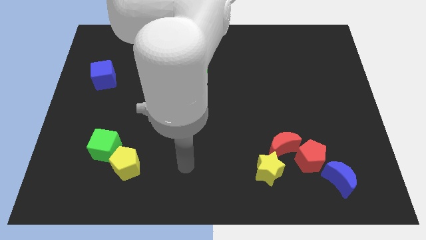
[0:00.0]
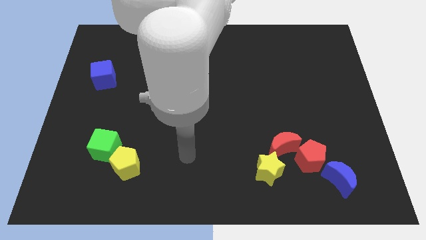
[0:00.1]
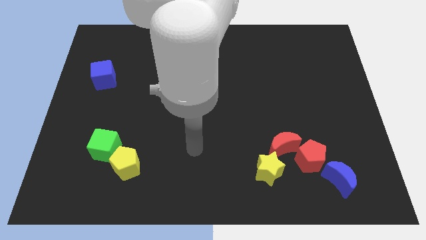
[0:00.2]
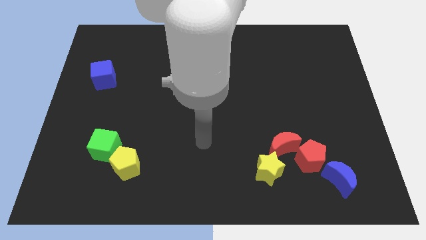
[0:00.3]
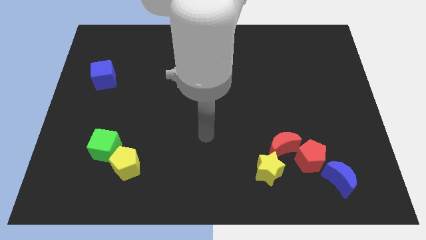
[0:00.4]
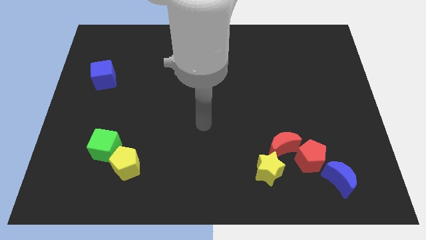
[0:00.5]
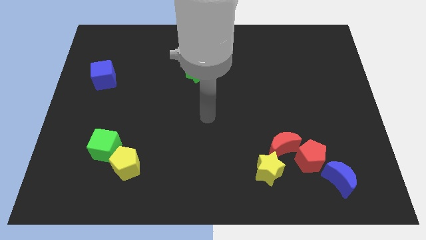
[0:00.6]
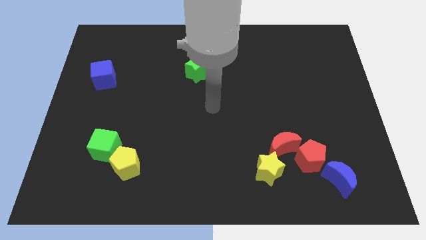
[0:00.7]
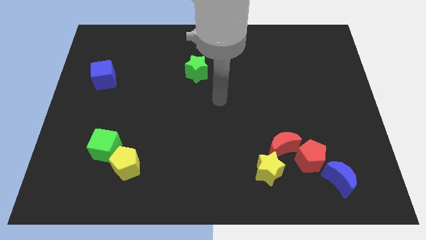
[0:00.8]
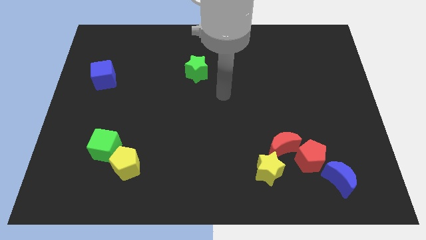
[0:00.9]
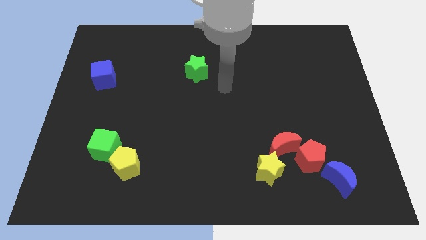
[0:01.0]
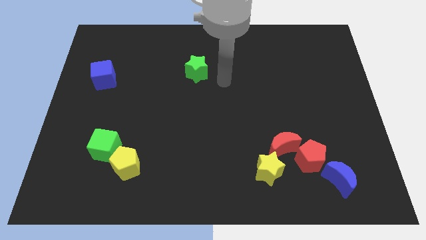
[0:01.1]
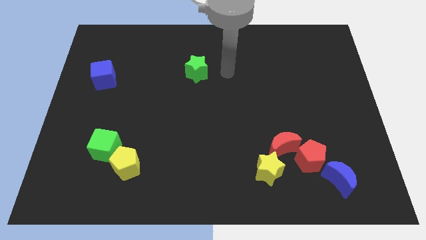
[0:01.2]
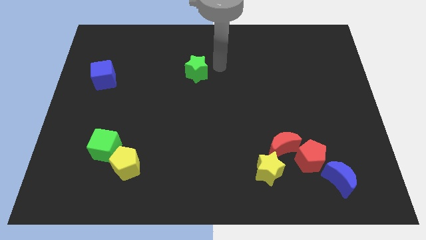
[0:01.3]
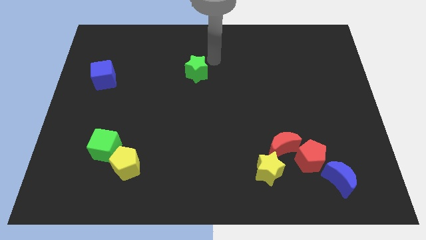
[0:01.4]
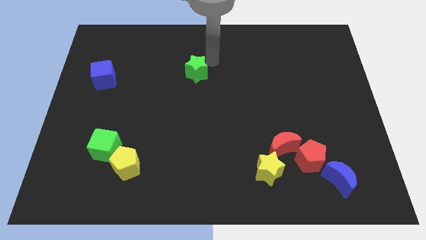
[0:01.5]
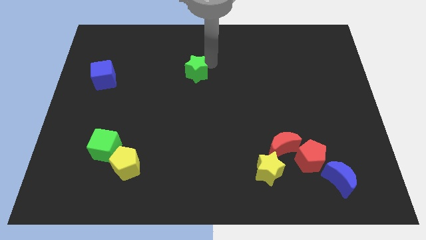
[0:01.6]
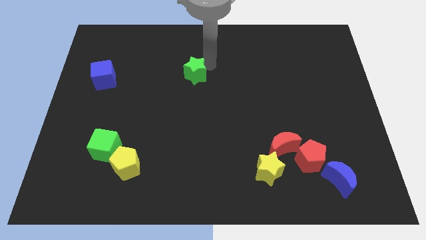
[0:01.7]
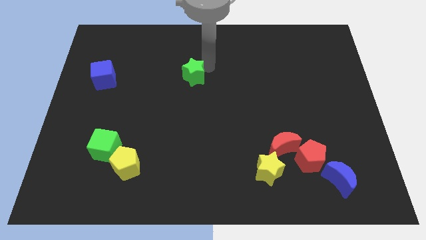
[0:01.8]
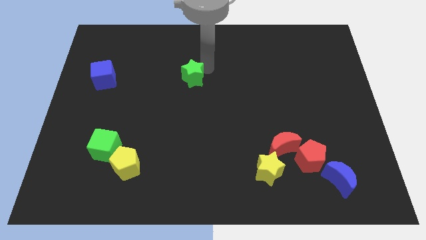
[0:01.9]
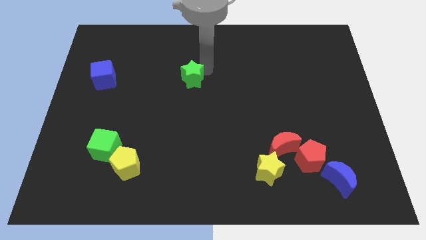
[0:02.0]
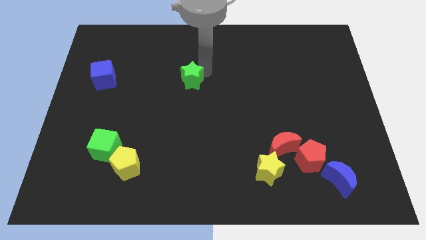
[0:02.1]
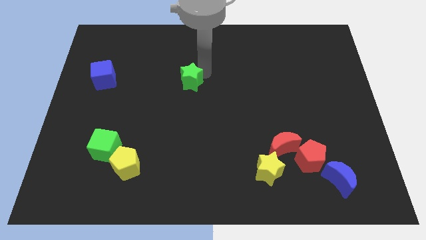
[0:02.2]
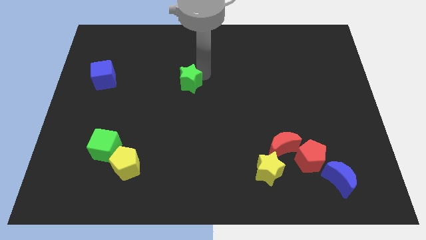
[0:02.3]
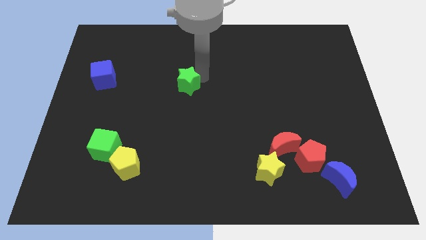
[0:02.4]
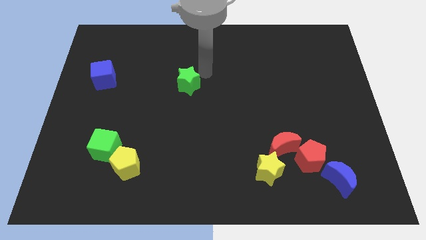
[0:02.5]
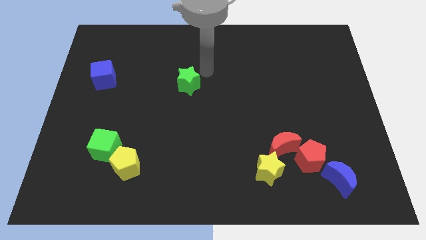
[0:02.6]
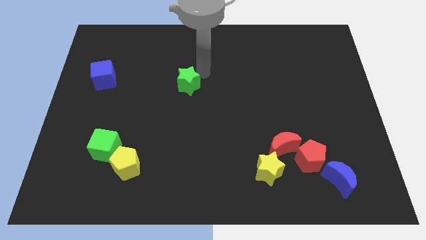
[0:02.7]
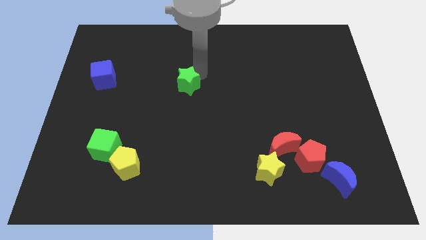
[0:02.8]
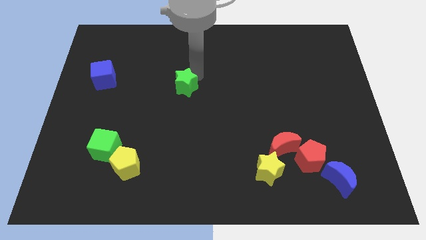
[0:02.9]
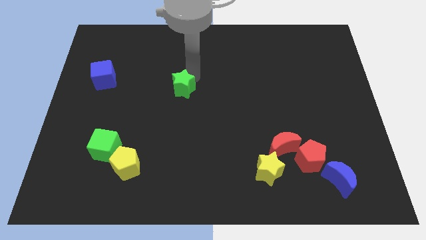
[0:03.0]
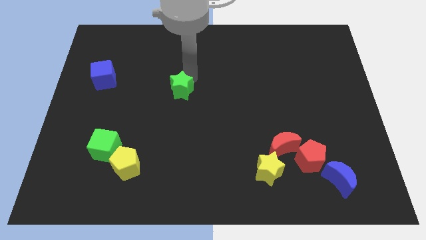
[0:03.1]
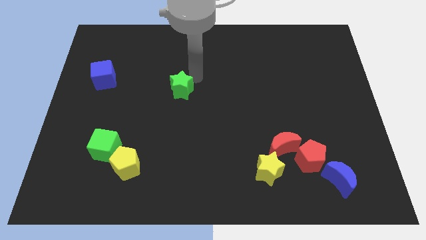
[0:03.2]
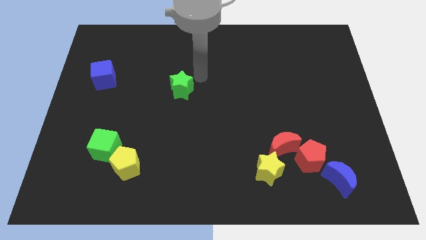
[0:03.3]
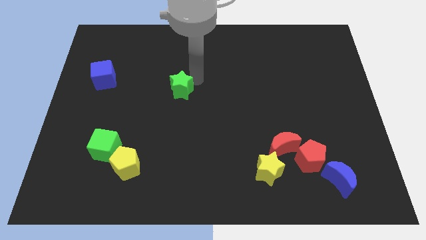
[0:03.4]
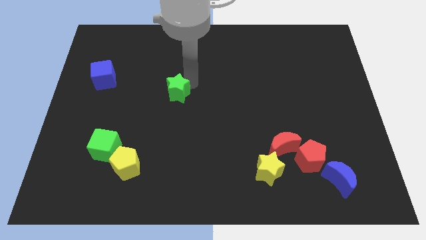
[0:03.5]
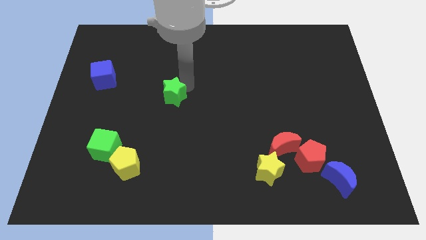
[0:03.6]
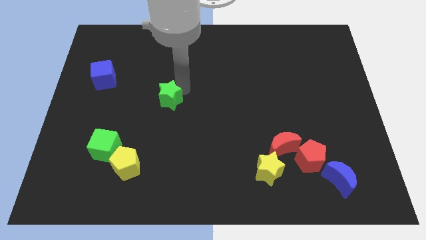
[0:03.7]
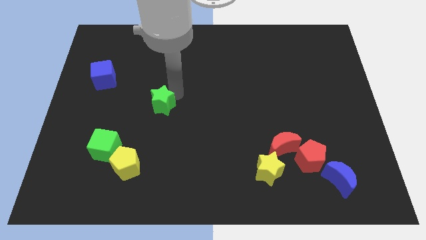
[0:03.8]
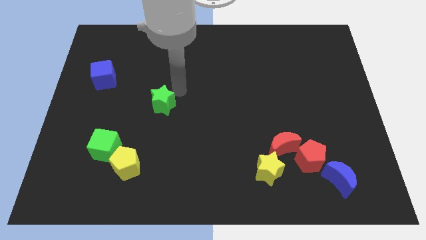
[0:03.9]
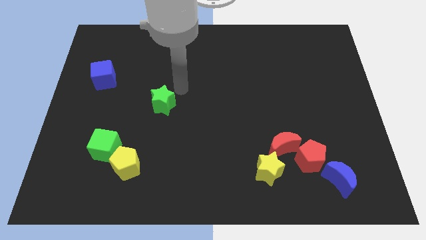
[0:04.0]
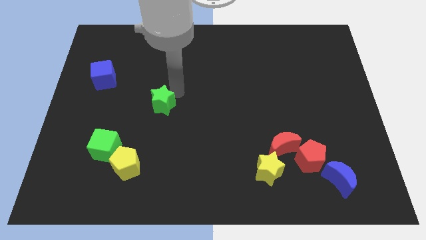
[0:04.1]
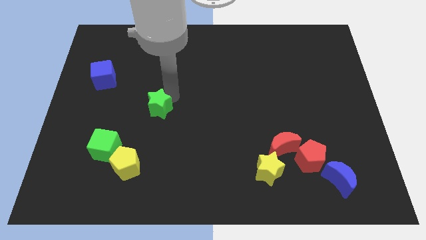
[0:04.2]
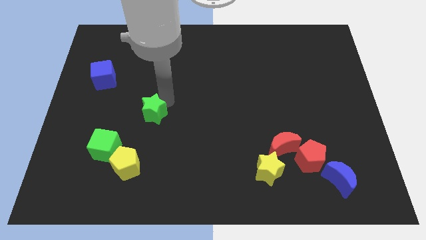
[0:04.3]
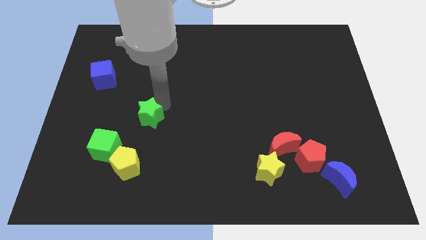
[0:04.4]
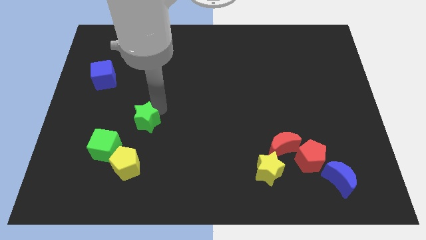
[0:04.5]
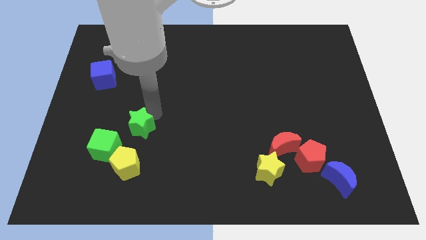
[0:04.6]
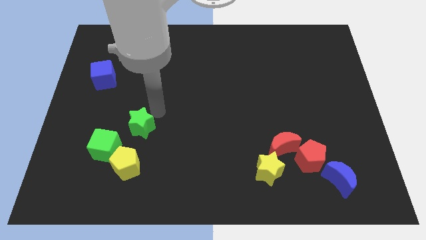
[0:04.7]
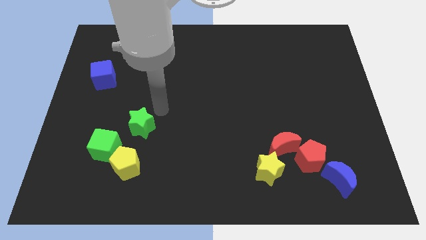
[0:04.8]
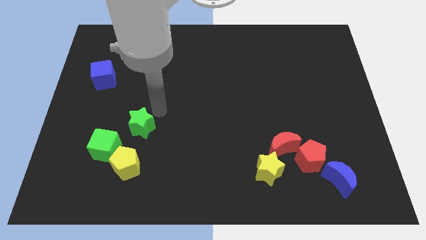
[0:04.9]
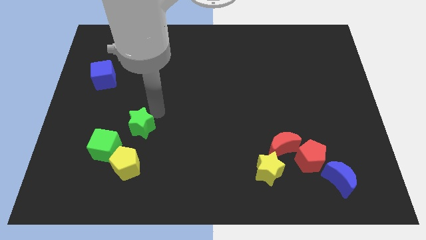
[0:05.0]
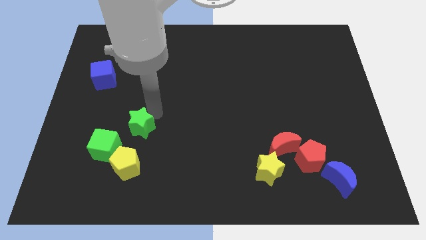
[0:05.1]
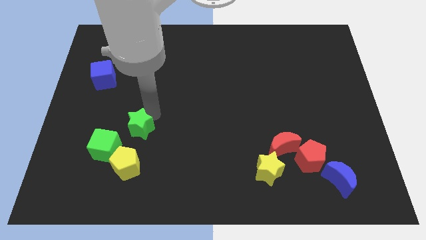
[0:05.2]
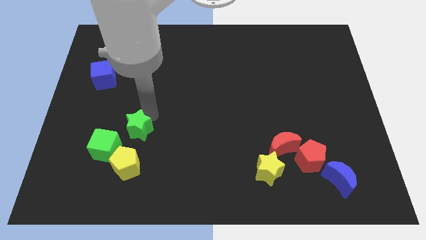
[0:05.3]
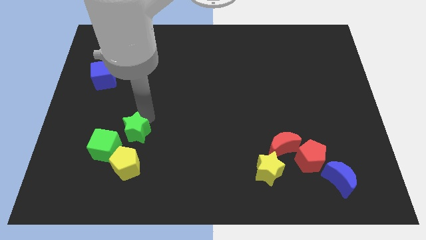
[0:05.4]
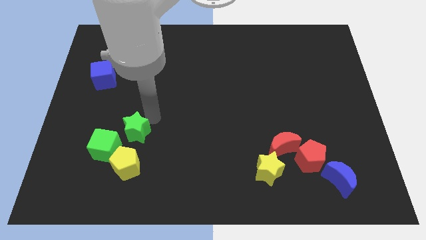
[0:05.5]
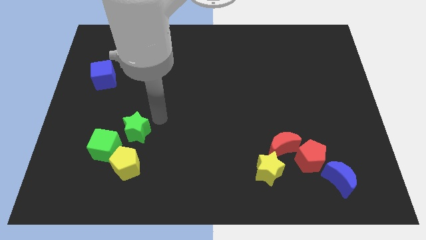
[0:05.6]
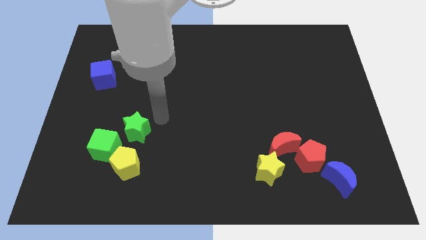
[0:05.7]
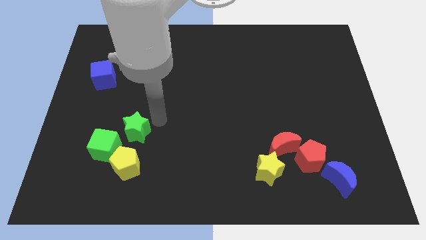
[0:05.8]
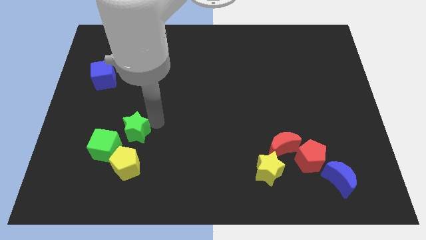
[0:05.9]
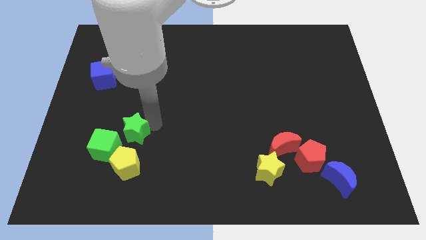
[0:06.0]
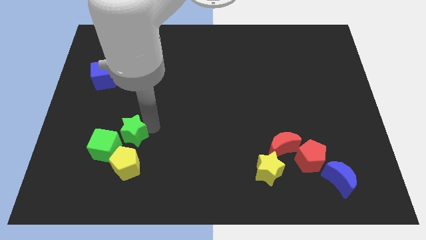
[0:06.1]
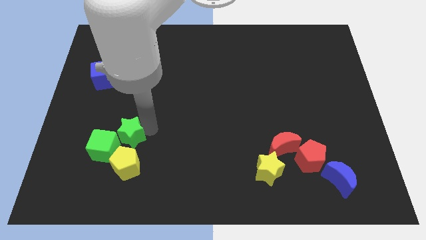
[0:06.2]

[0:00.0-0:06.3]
slide the green star to the green cube

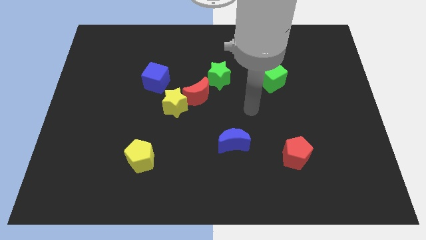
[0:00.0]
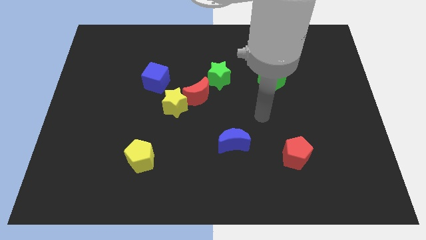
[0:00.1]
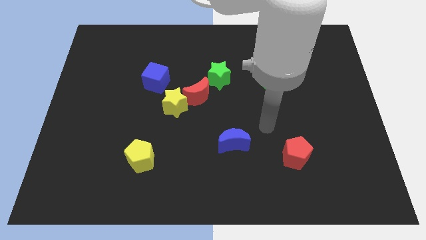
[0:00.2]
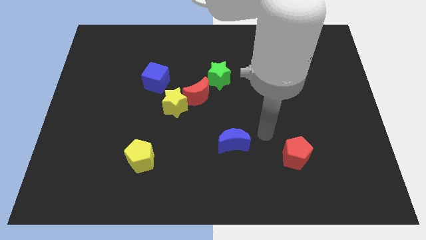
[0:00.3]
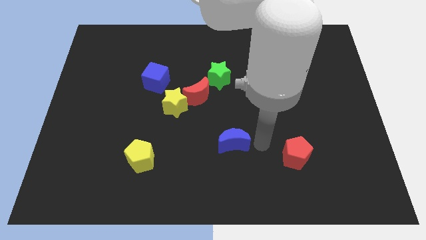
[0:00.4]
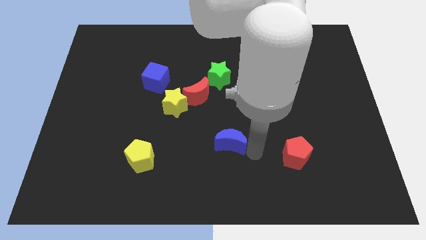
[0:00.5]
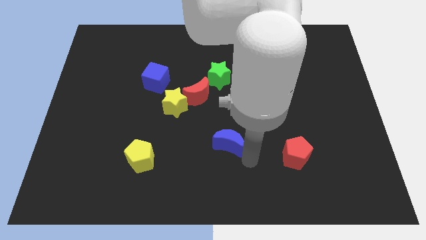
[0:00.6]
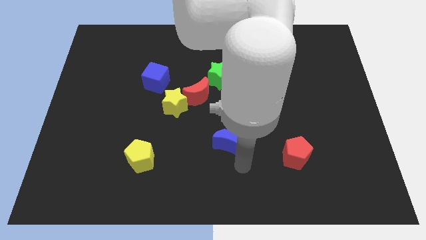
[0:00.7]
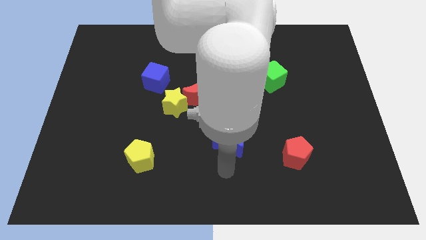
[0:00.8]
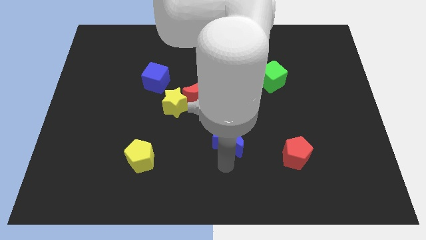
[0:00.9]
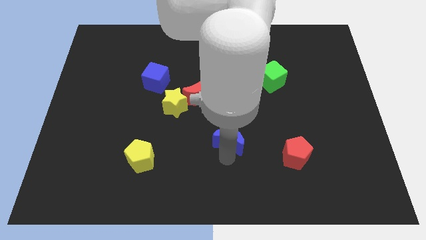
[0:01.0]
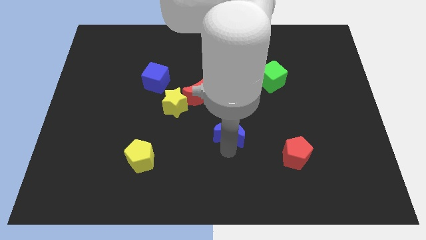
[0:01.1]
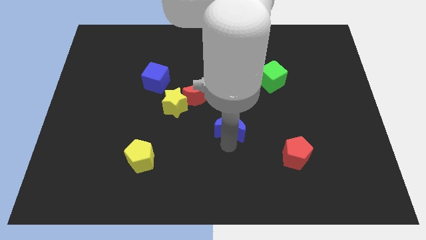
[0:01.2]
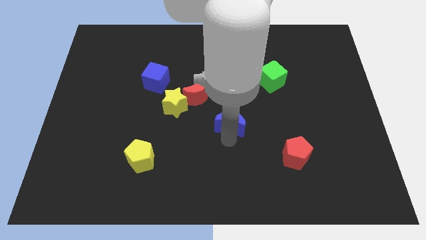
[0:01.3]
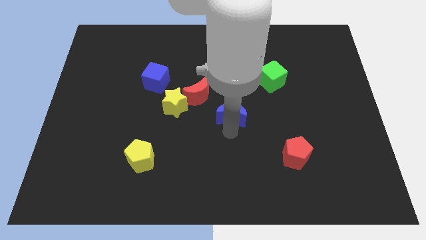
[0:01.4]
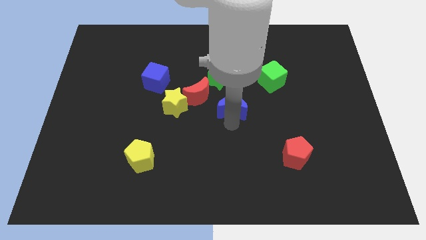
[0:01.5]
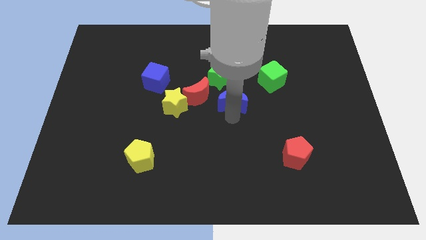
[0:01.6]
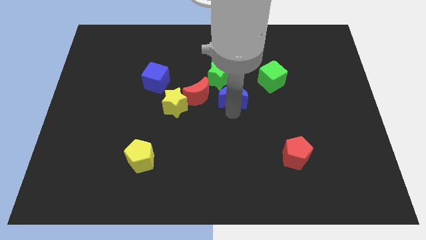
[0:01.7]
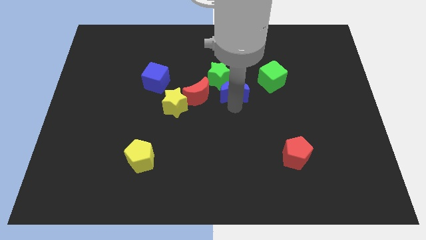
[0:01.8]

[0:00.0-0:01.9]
push the blue moon to the green star
